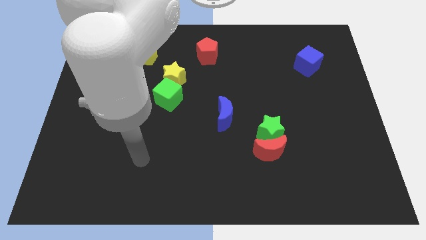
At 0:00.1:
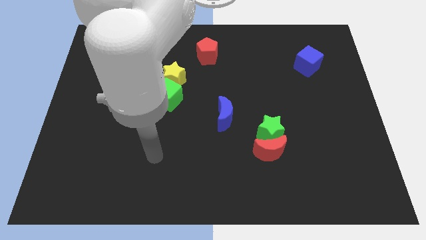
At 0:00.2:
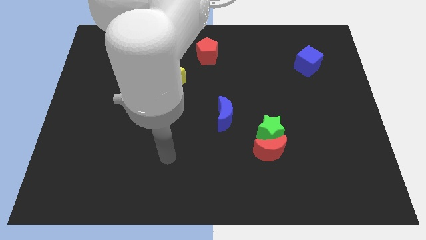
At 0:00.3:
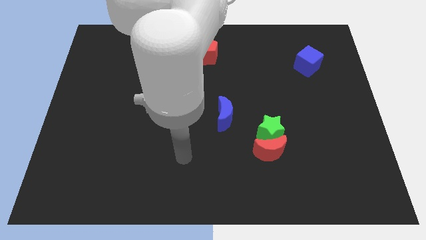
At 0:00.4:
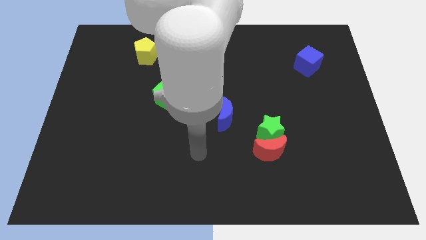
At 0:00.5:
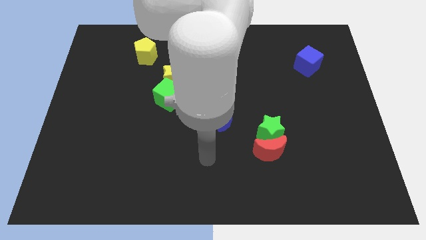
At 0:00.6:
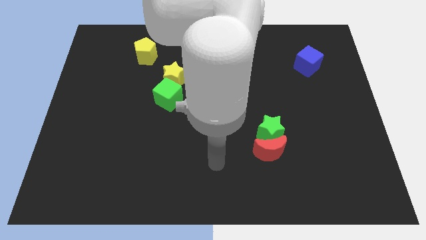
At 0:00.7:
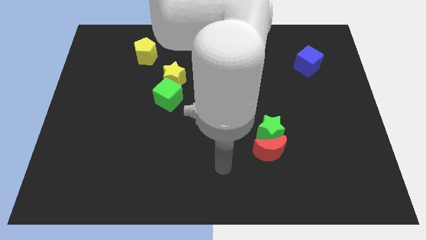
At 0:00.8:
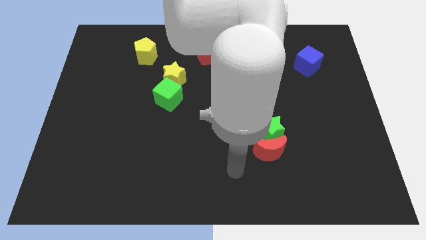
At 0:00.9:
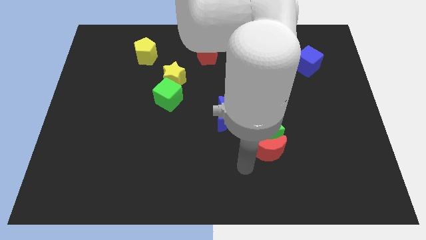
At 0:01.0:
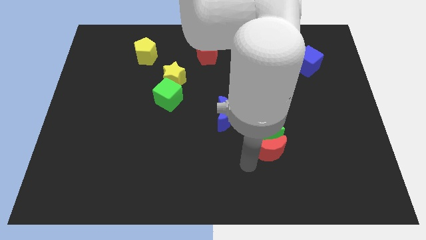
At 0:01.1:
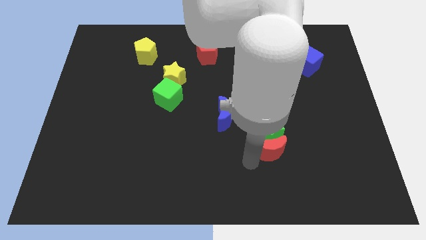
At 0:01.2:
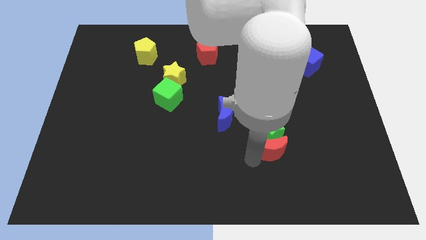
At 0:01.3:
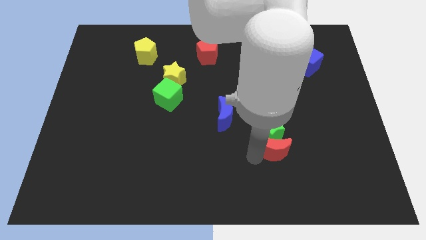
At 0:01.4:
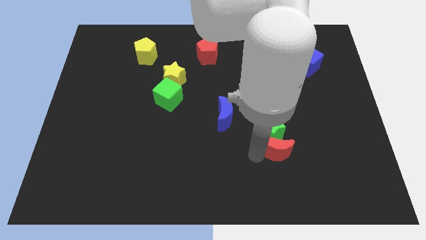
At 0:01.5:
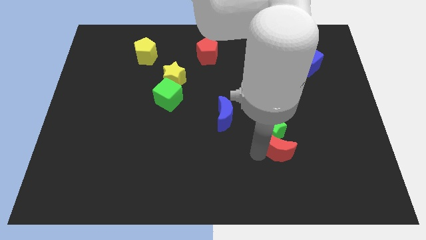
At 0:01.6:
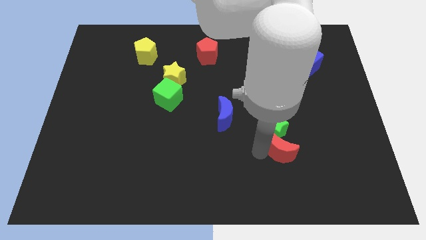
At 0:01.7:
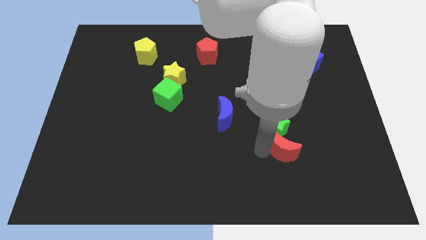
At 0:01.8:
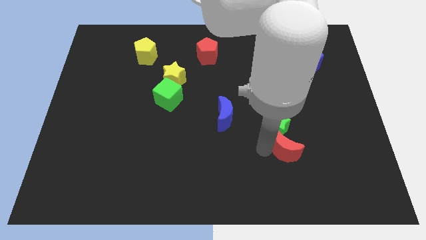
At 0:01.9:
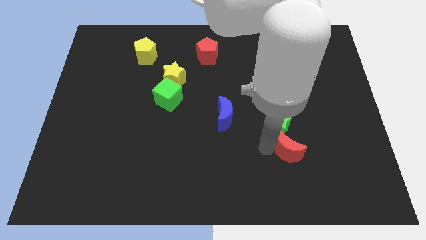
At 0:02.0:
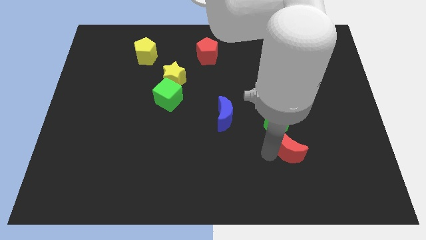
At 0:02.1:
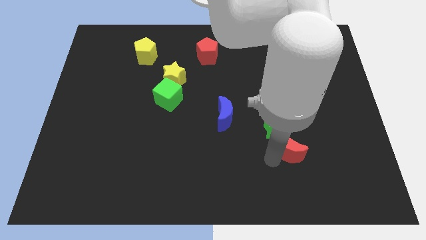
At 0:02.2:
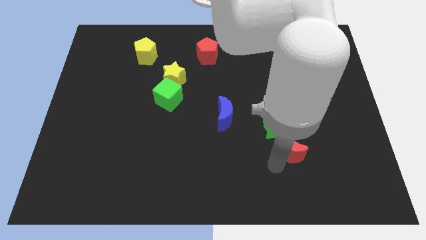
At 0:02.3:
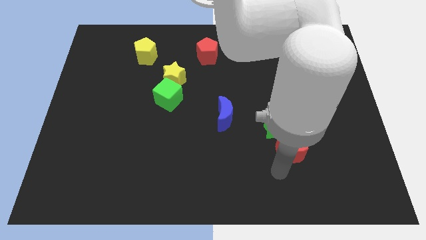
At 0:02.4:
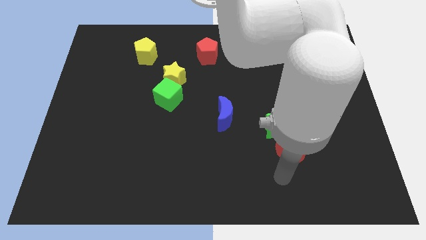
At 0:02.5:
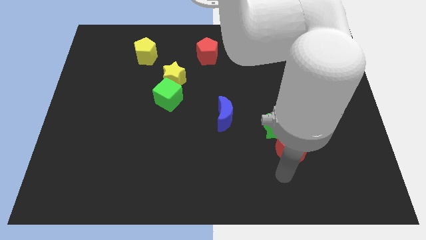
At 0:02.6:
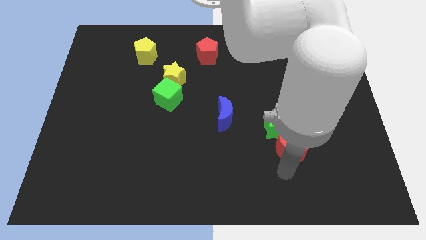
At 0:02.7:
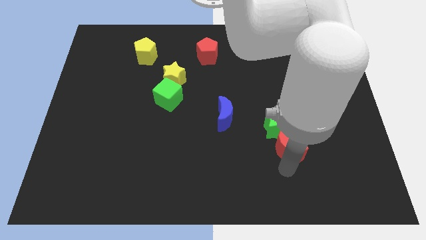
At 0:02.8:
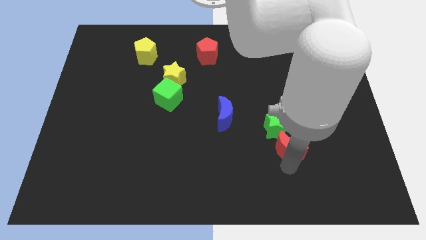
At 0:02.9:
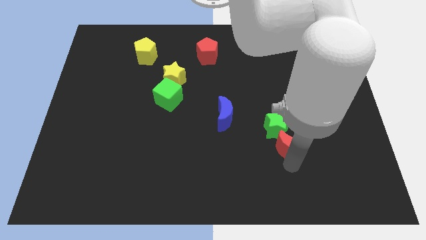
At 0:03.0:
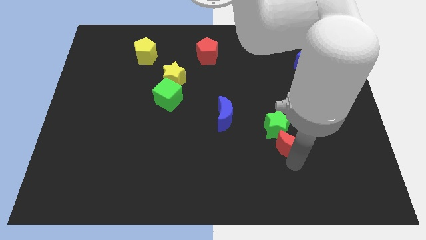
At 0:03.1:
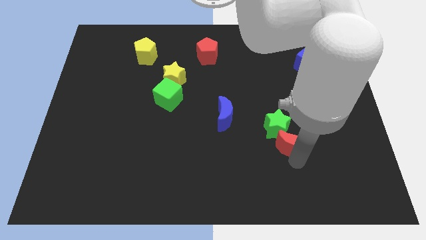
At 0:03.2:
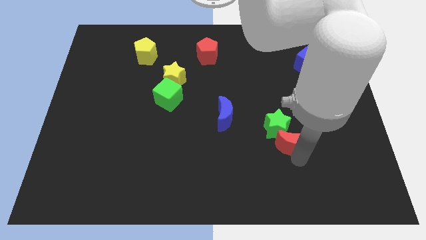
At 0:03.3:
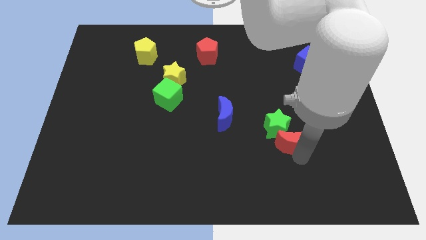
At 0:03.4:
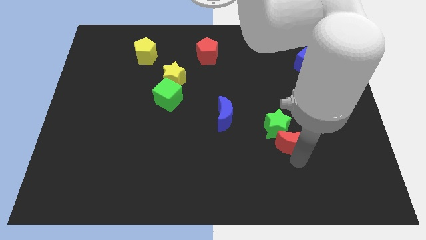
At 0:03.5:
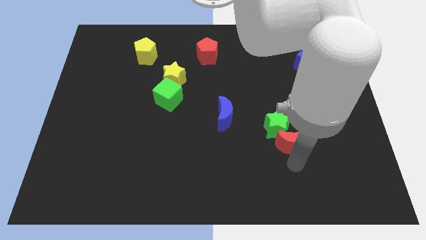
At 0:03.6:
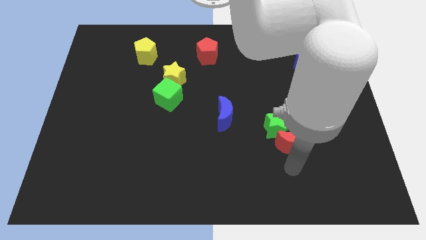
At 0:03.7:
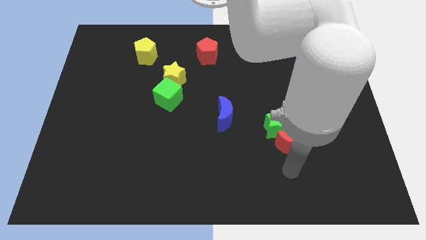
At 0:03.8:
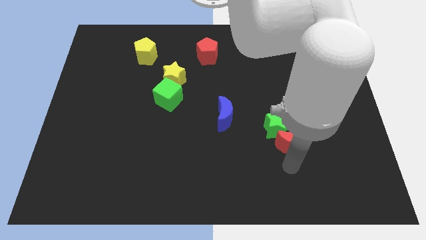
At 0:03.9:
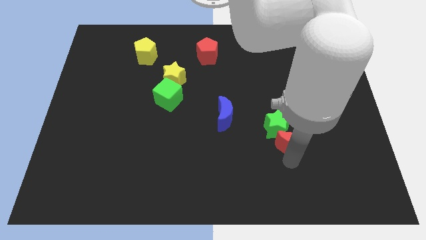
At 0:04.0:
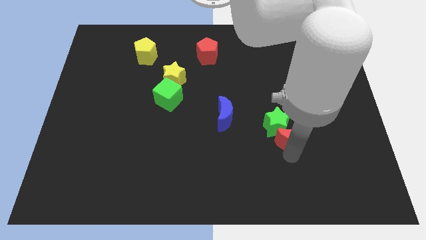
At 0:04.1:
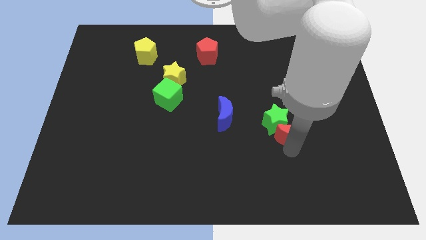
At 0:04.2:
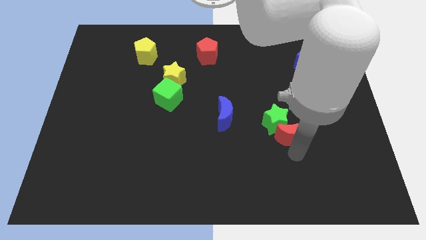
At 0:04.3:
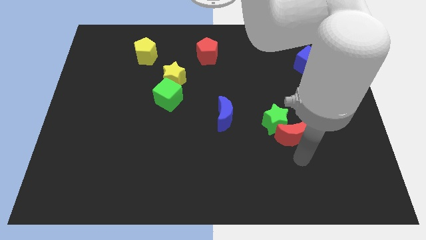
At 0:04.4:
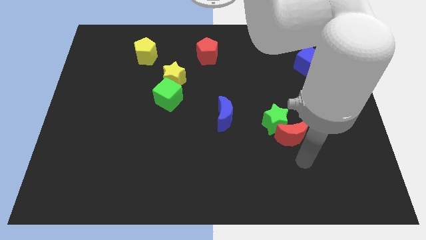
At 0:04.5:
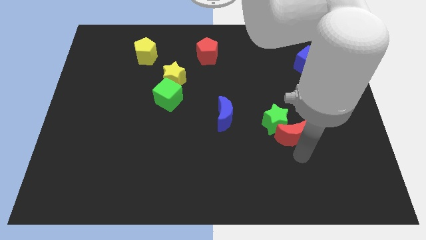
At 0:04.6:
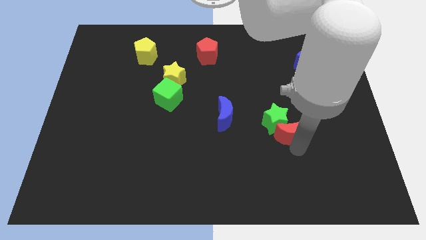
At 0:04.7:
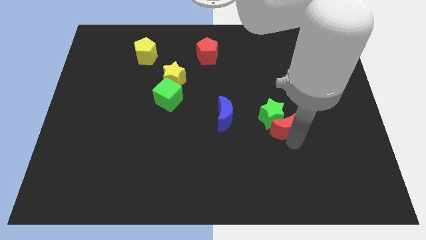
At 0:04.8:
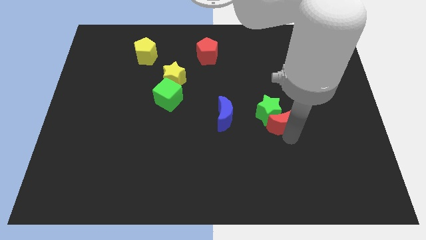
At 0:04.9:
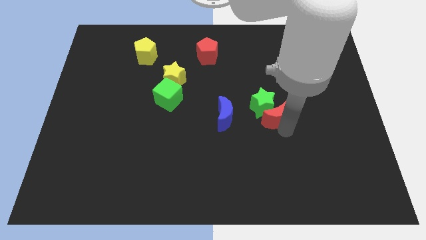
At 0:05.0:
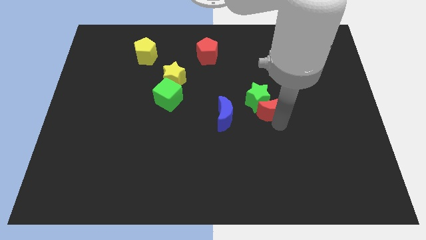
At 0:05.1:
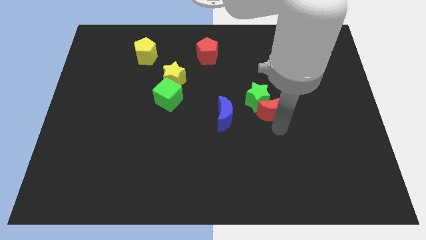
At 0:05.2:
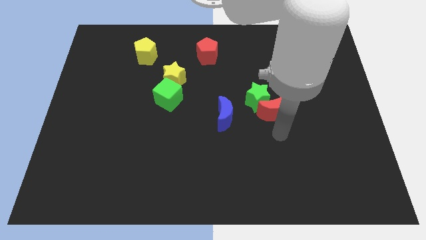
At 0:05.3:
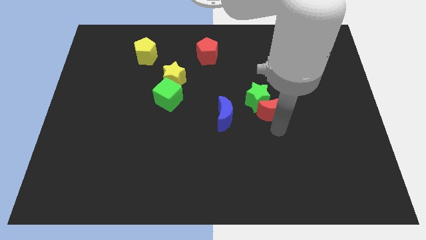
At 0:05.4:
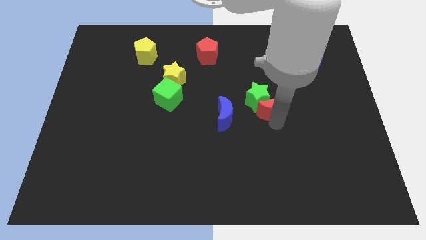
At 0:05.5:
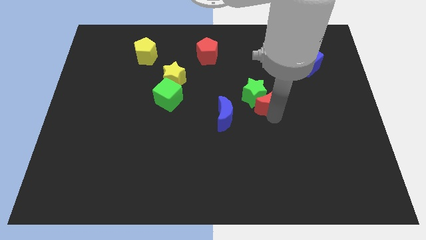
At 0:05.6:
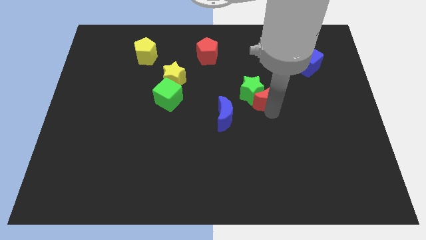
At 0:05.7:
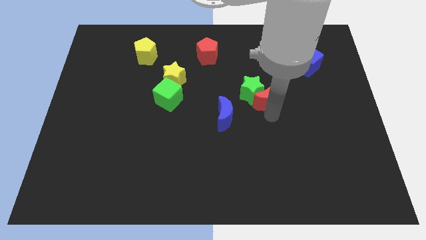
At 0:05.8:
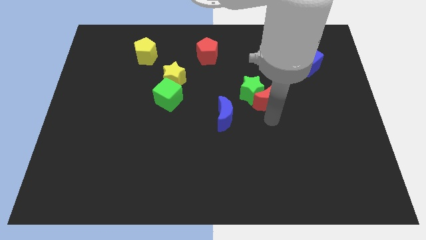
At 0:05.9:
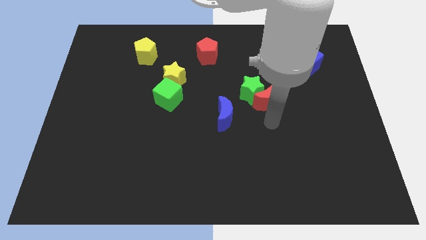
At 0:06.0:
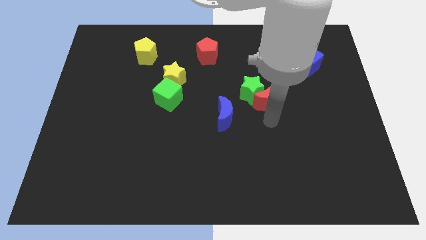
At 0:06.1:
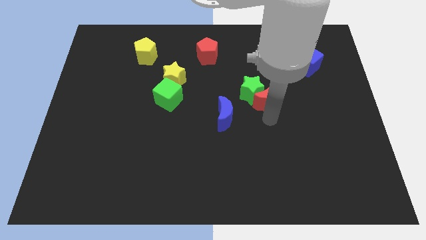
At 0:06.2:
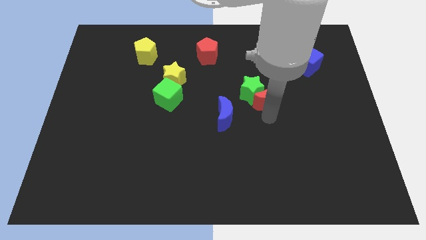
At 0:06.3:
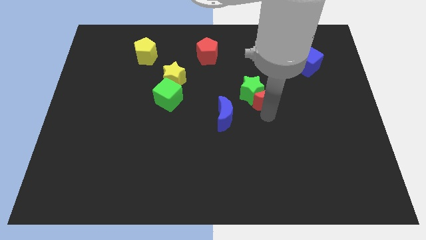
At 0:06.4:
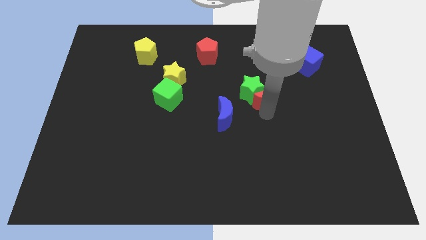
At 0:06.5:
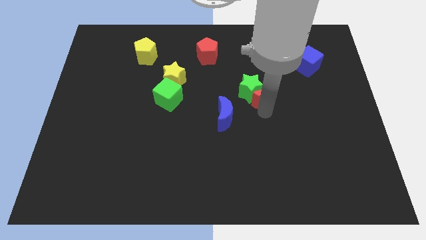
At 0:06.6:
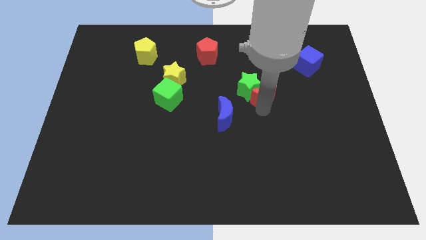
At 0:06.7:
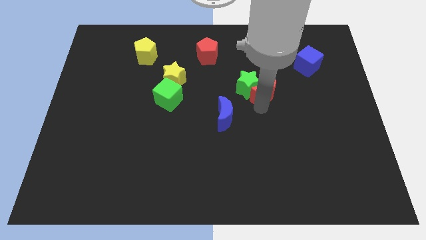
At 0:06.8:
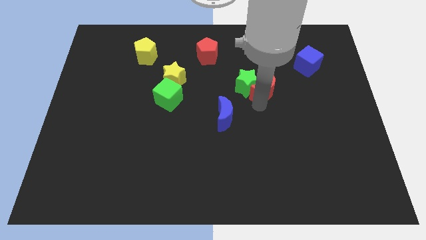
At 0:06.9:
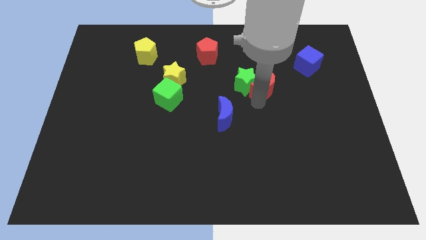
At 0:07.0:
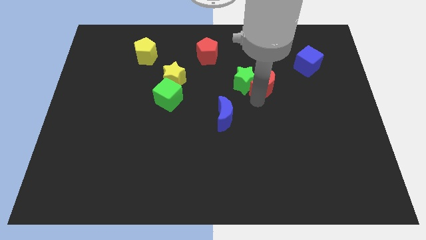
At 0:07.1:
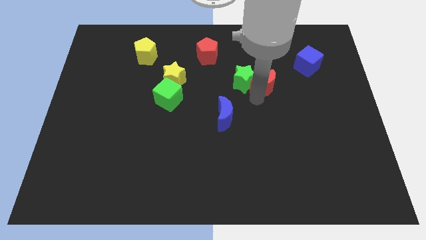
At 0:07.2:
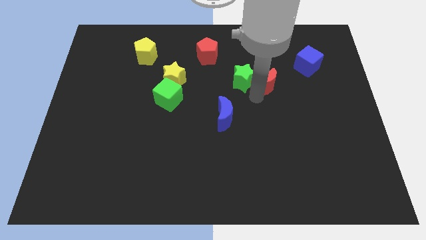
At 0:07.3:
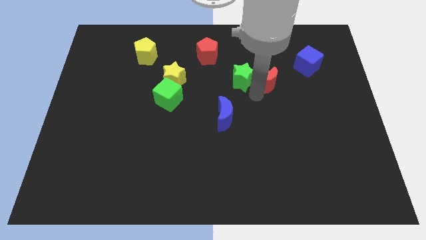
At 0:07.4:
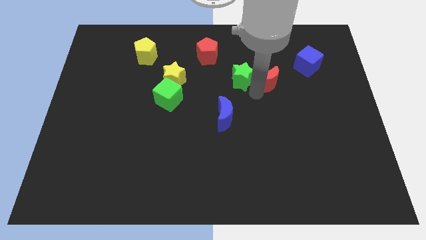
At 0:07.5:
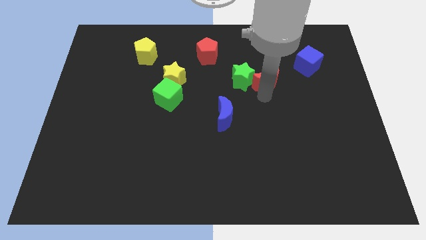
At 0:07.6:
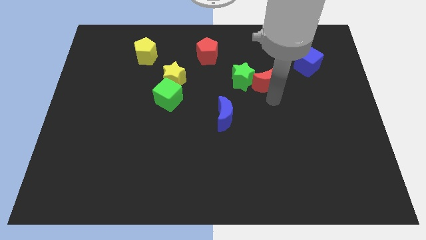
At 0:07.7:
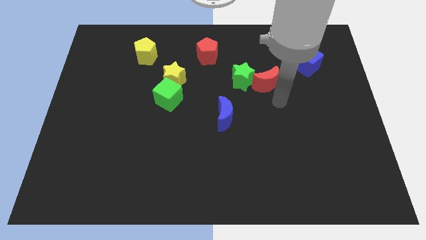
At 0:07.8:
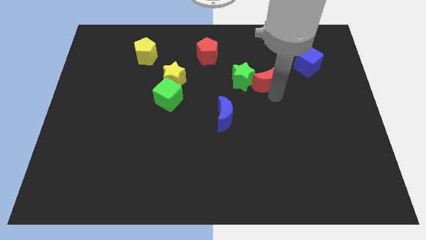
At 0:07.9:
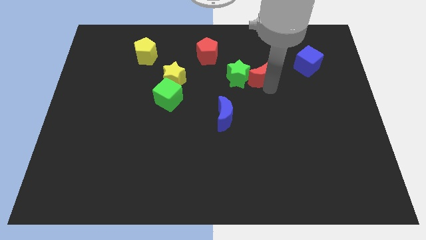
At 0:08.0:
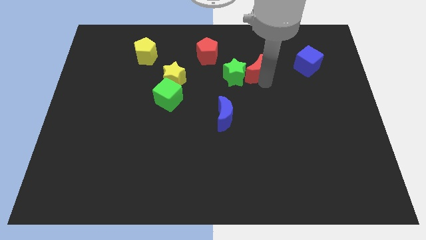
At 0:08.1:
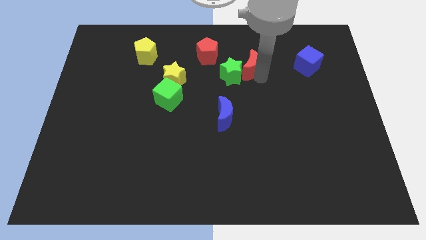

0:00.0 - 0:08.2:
put the red moon just right of the red pentagon
